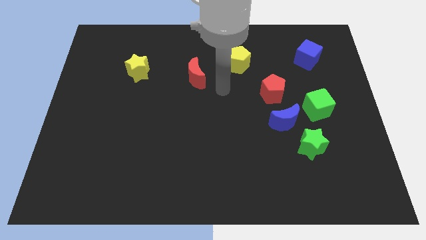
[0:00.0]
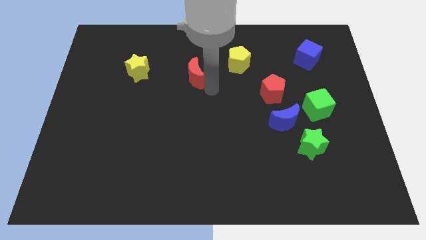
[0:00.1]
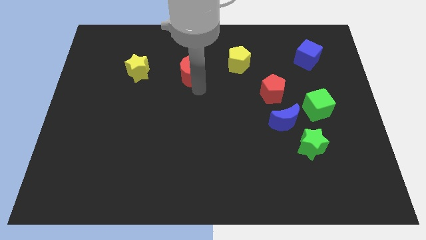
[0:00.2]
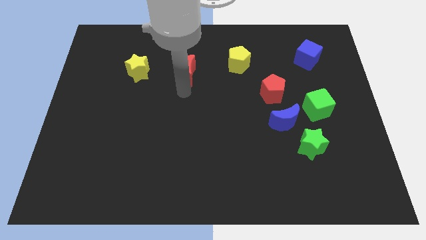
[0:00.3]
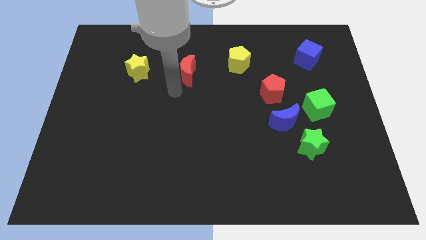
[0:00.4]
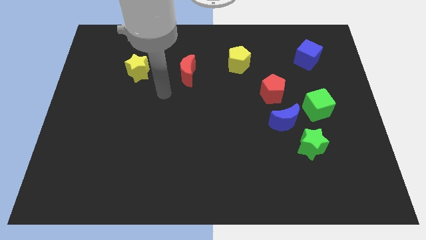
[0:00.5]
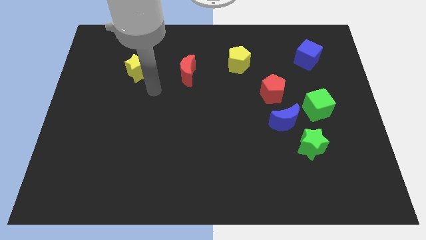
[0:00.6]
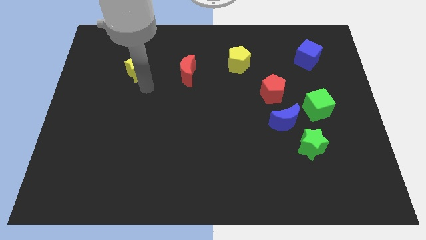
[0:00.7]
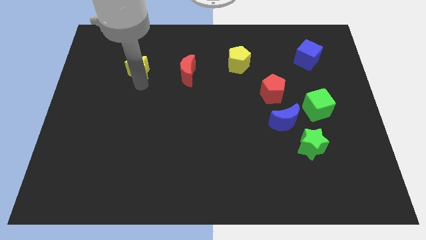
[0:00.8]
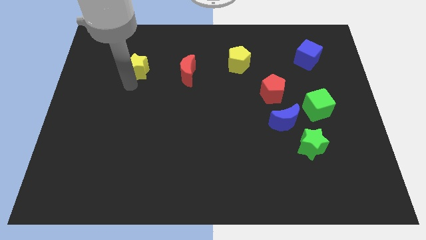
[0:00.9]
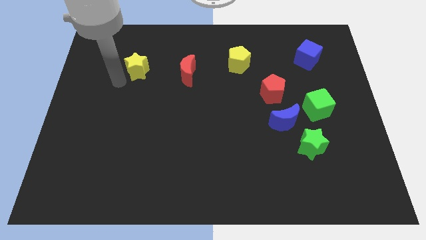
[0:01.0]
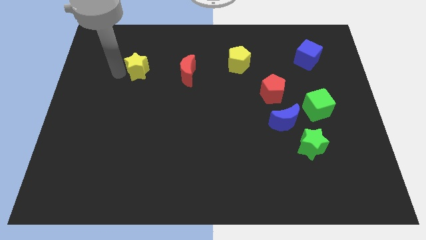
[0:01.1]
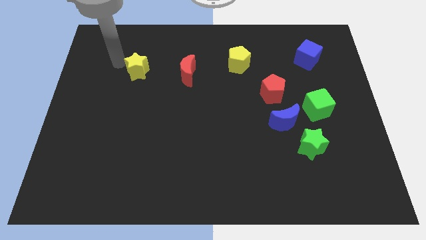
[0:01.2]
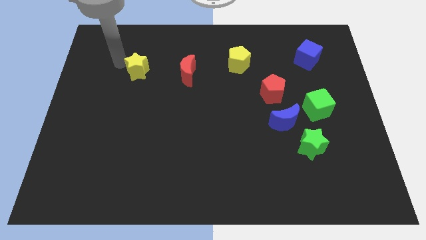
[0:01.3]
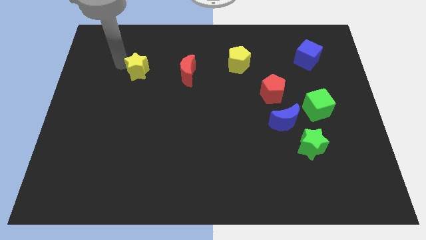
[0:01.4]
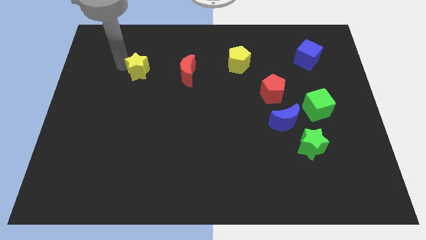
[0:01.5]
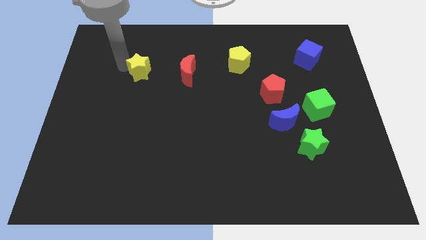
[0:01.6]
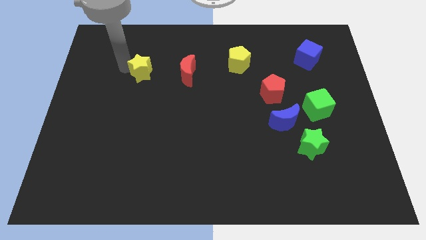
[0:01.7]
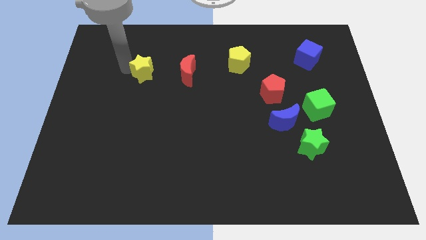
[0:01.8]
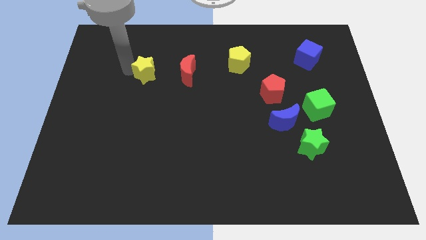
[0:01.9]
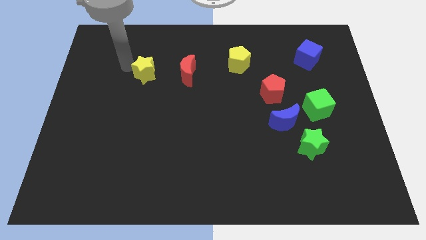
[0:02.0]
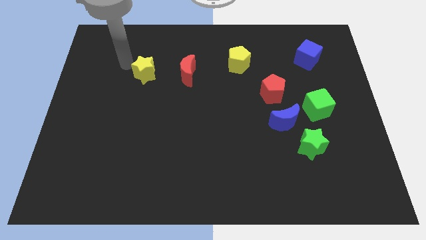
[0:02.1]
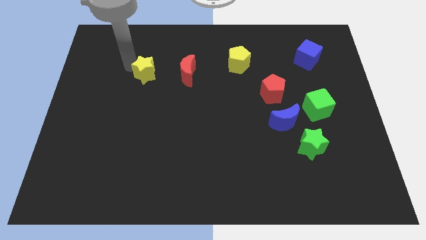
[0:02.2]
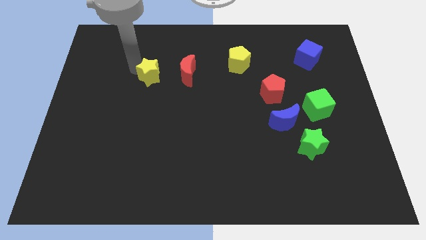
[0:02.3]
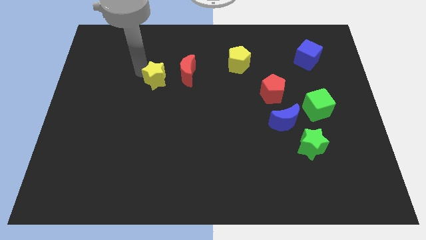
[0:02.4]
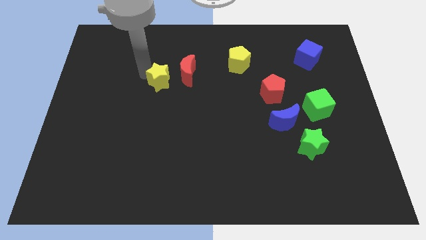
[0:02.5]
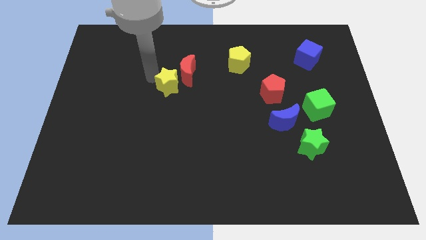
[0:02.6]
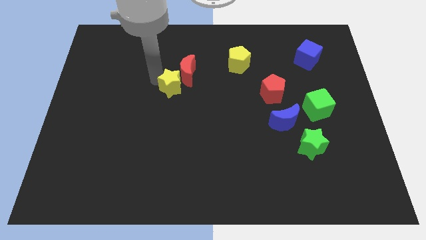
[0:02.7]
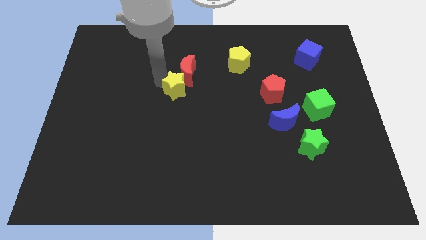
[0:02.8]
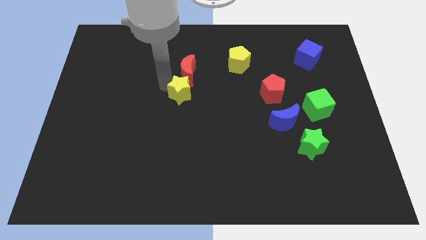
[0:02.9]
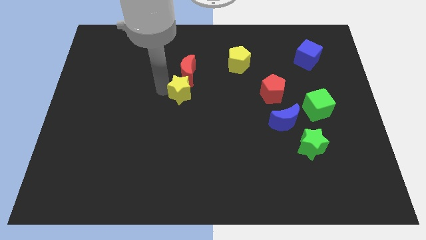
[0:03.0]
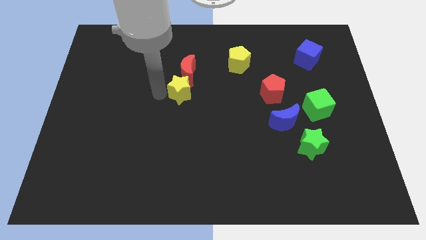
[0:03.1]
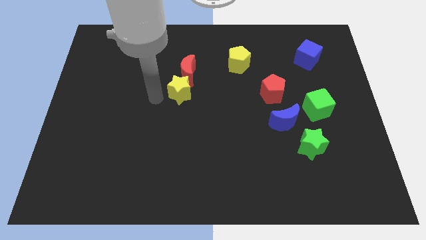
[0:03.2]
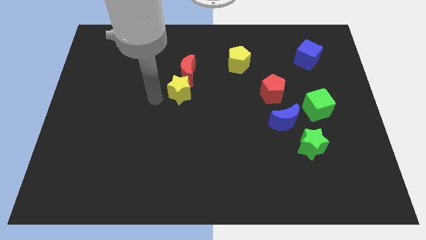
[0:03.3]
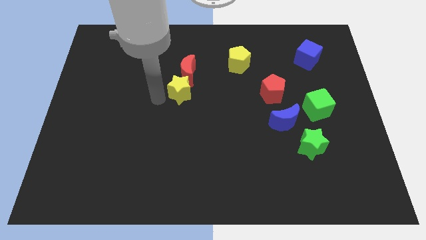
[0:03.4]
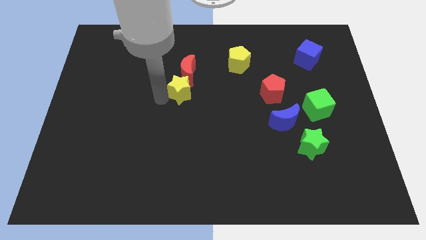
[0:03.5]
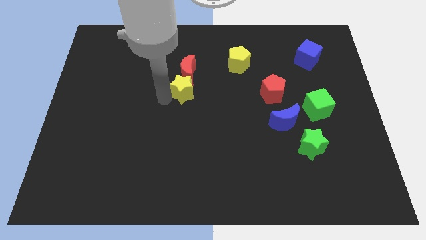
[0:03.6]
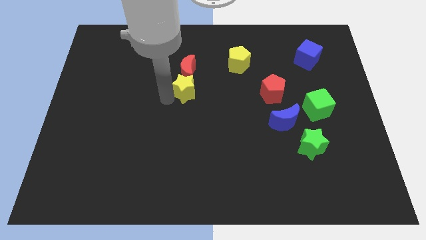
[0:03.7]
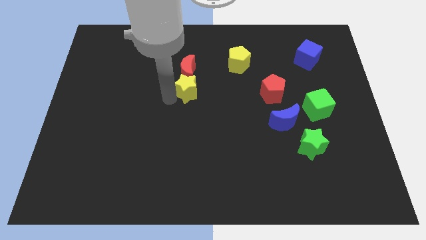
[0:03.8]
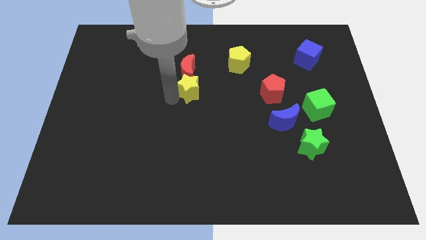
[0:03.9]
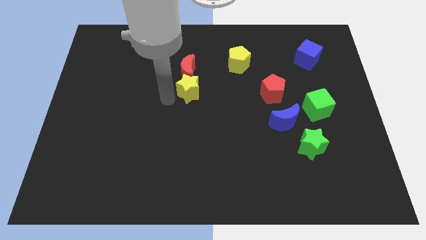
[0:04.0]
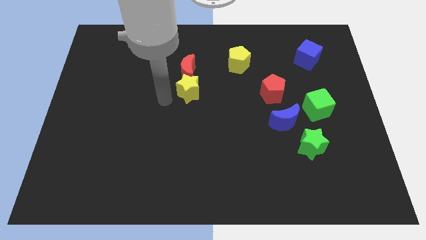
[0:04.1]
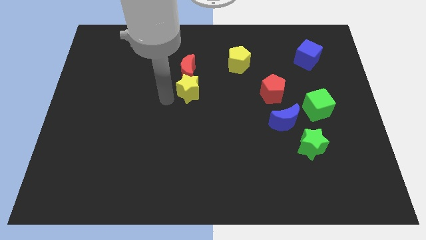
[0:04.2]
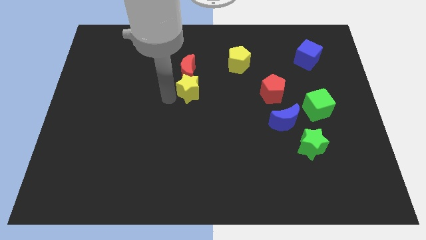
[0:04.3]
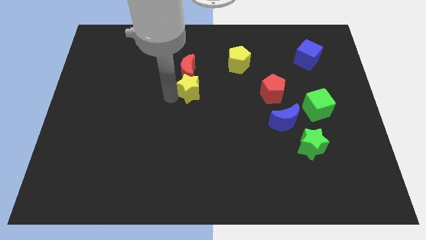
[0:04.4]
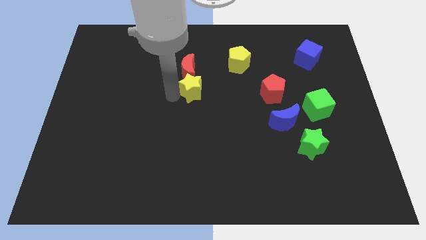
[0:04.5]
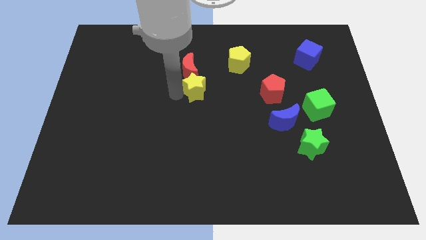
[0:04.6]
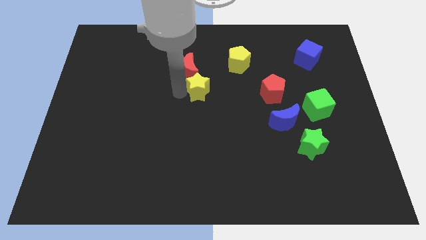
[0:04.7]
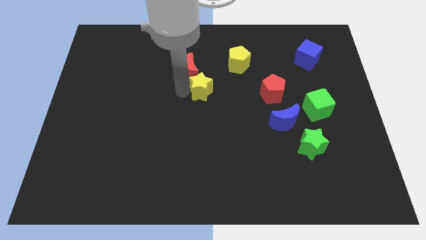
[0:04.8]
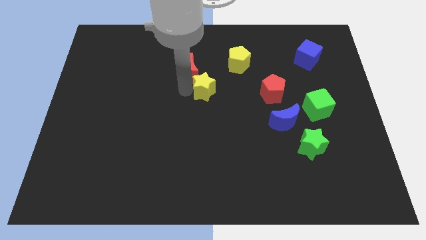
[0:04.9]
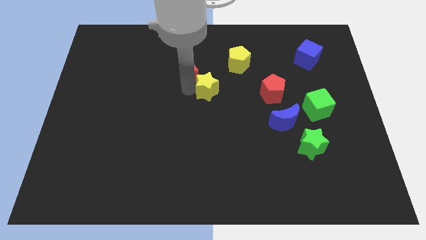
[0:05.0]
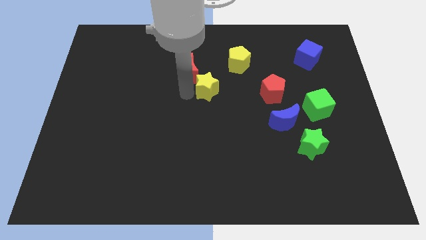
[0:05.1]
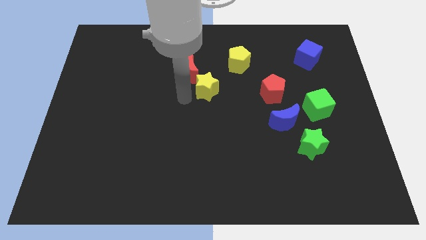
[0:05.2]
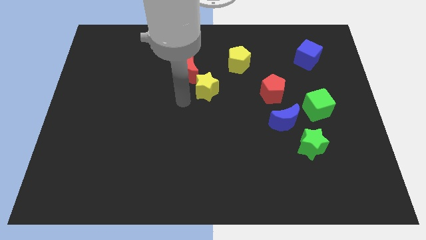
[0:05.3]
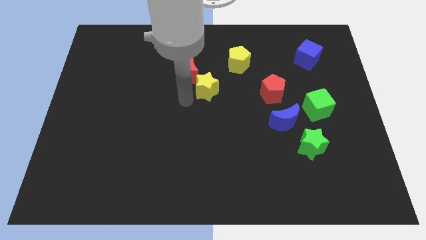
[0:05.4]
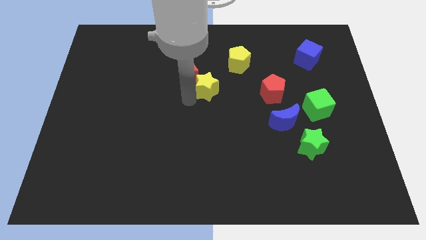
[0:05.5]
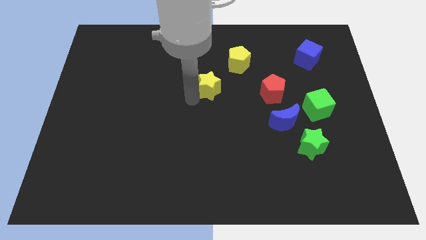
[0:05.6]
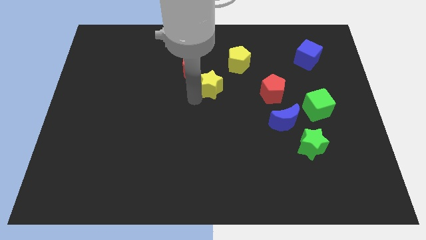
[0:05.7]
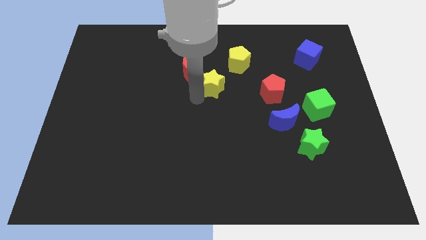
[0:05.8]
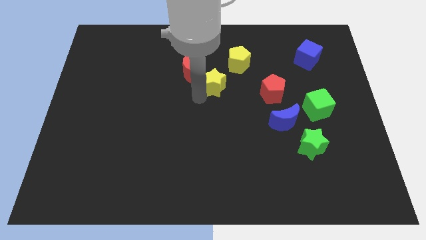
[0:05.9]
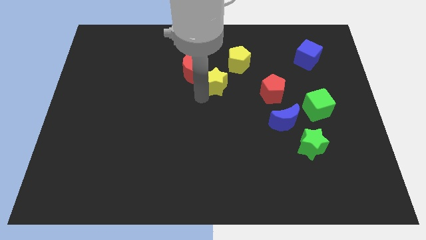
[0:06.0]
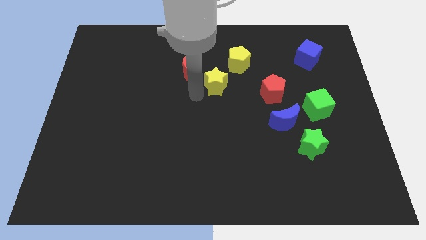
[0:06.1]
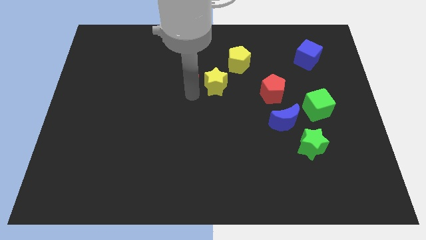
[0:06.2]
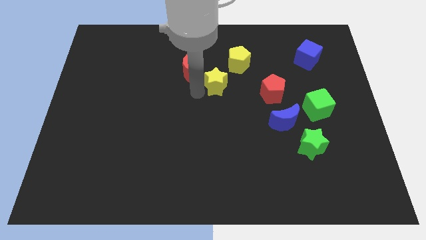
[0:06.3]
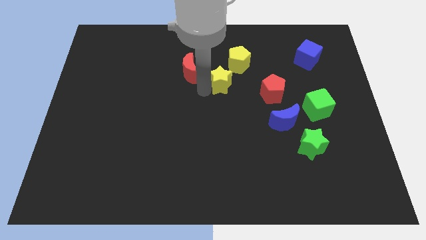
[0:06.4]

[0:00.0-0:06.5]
move the yellow star to the right

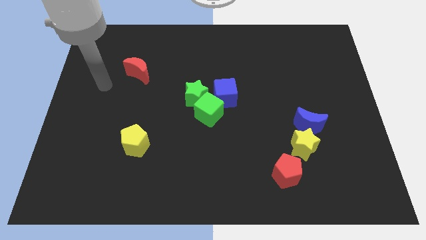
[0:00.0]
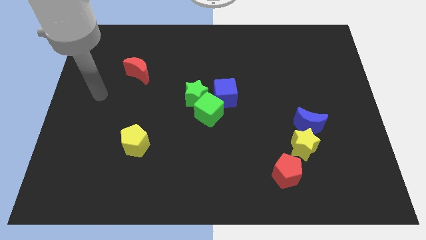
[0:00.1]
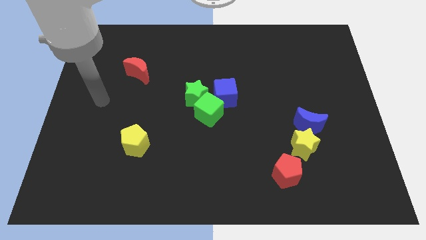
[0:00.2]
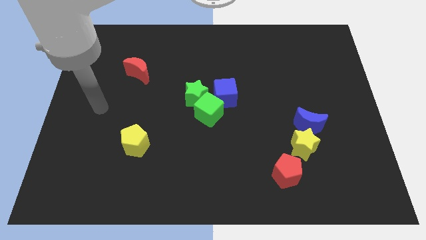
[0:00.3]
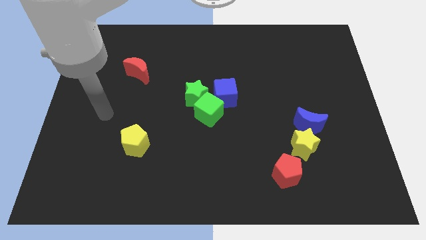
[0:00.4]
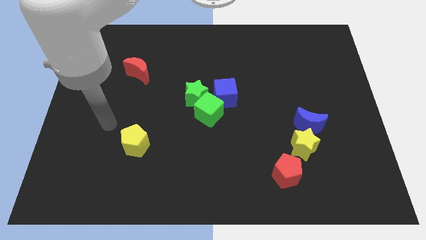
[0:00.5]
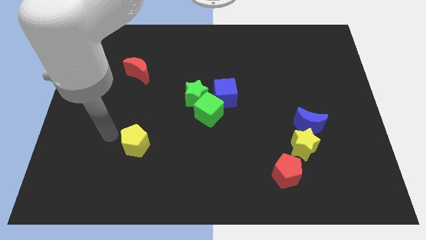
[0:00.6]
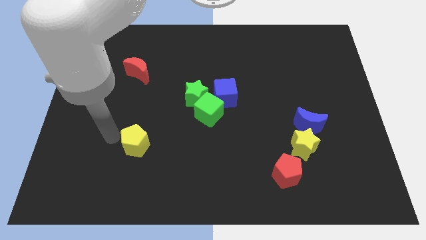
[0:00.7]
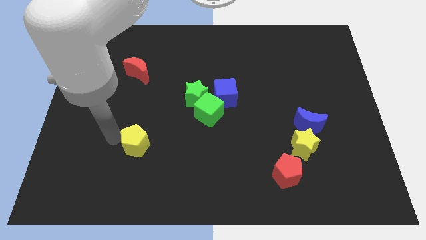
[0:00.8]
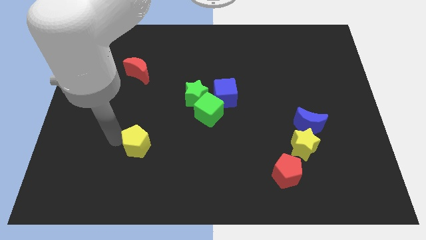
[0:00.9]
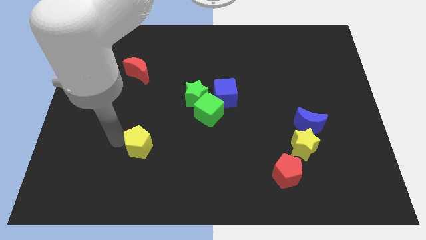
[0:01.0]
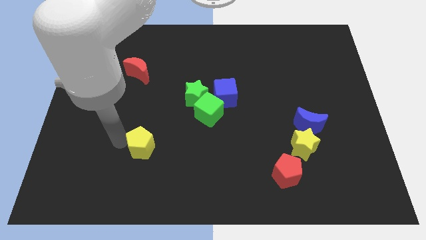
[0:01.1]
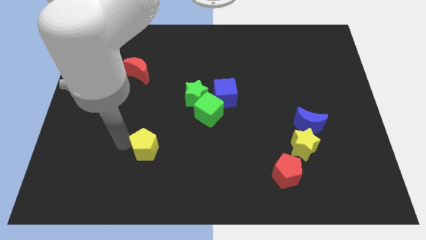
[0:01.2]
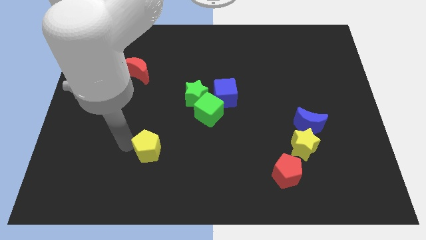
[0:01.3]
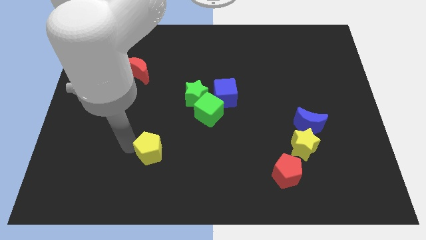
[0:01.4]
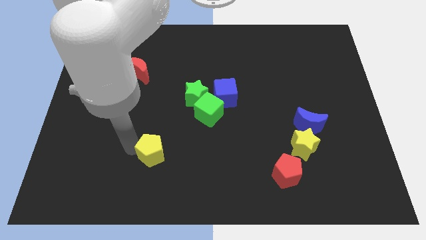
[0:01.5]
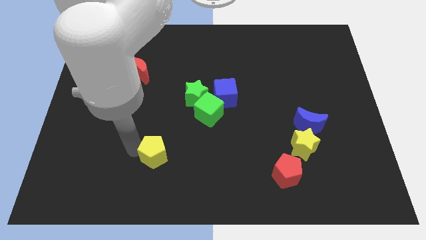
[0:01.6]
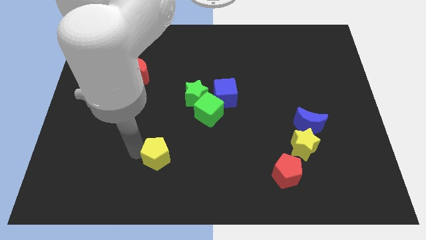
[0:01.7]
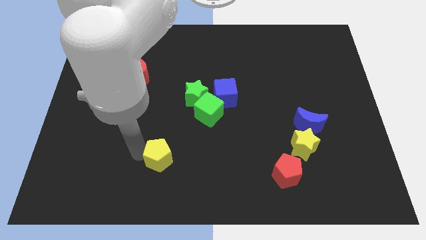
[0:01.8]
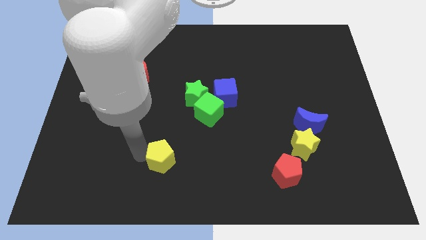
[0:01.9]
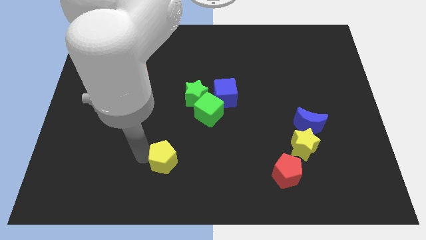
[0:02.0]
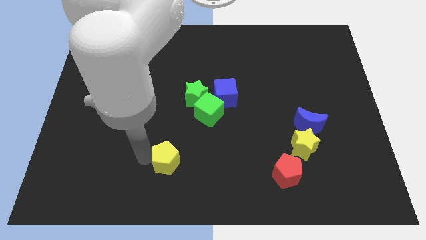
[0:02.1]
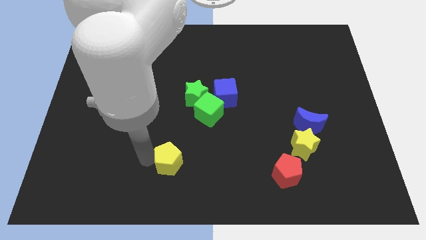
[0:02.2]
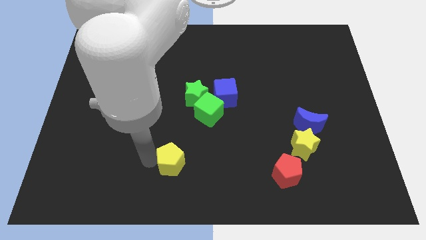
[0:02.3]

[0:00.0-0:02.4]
move the yellow pentagon to the right a bit
